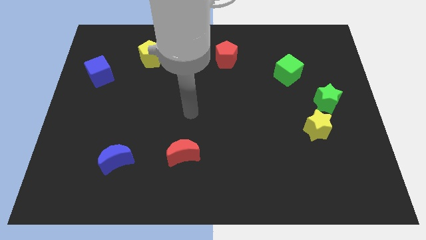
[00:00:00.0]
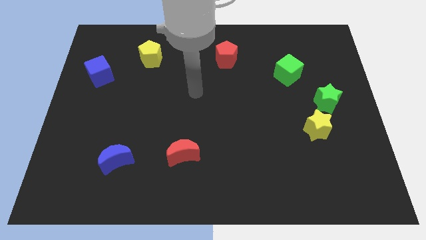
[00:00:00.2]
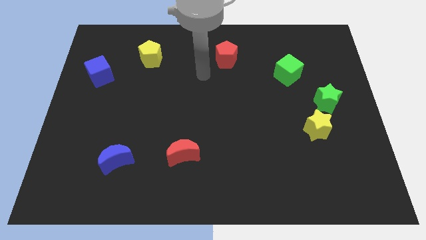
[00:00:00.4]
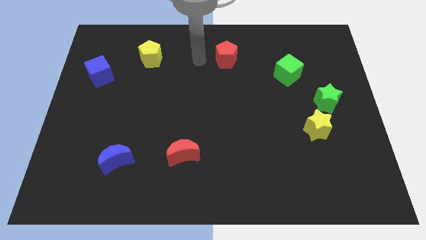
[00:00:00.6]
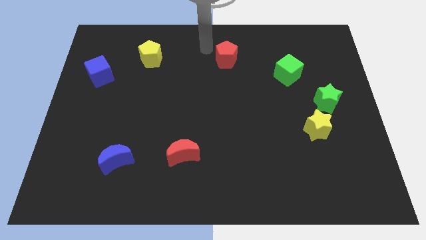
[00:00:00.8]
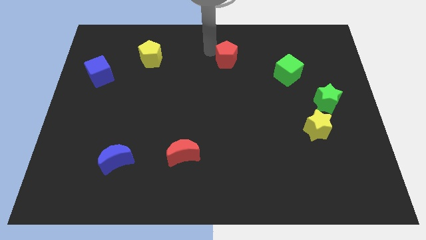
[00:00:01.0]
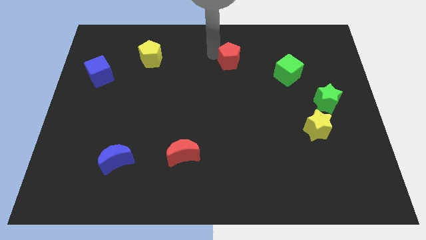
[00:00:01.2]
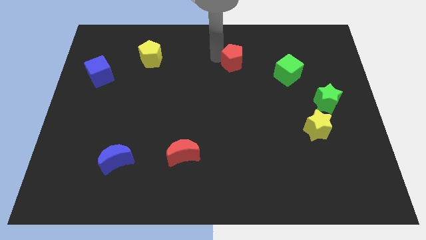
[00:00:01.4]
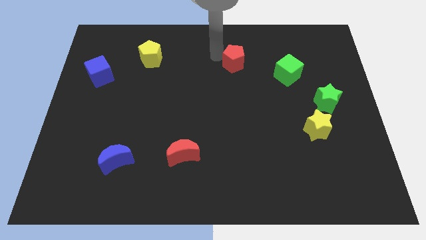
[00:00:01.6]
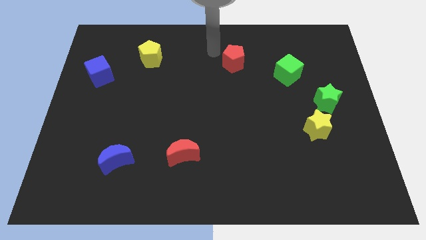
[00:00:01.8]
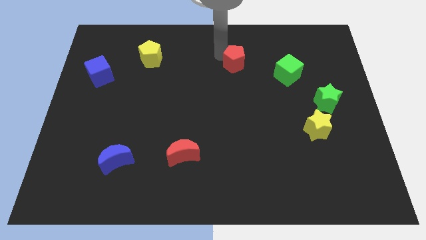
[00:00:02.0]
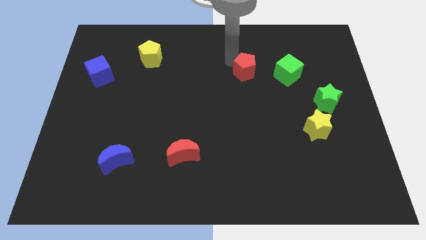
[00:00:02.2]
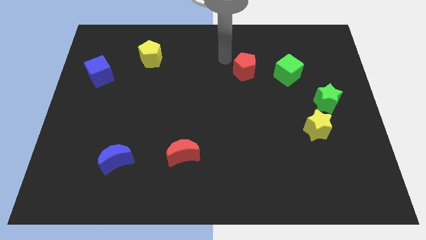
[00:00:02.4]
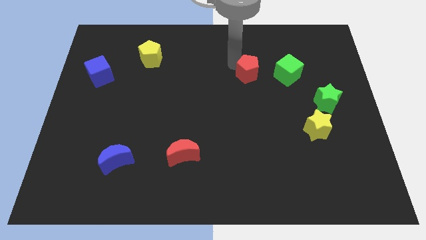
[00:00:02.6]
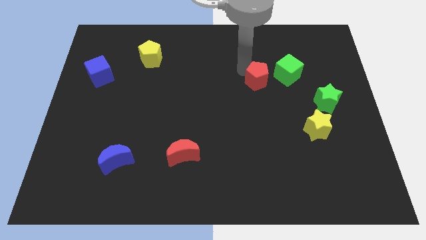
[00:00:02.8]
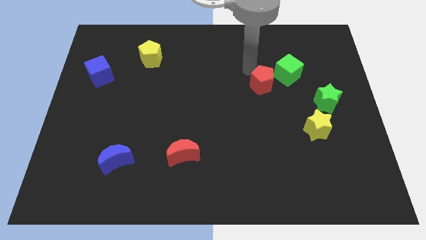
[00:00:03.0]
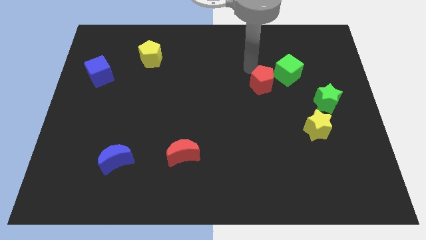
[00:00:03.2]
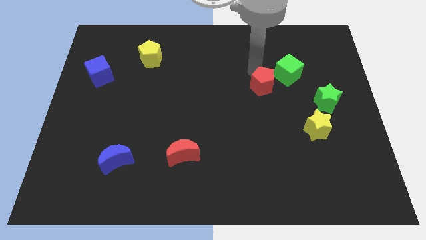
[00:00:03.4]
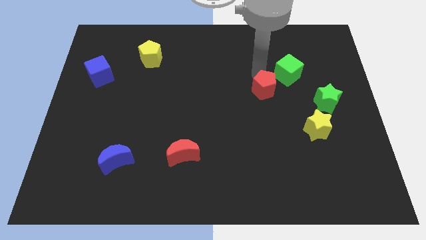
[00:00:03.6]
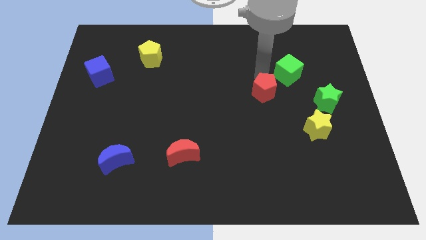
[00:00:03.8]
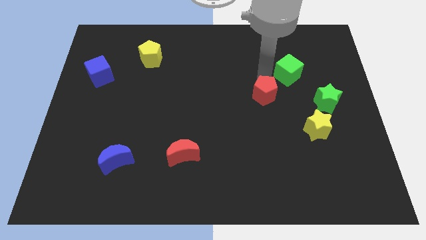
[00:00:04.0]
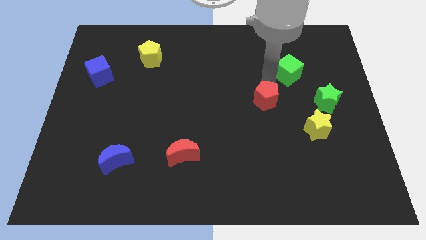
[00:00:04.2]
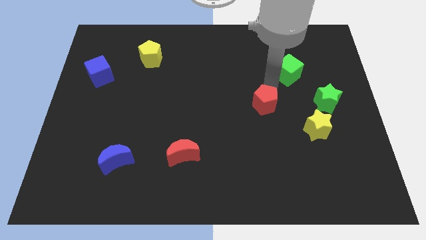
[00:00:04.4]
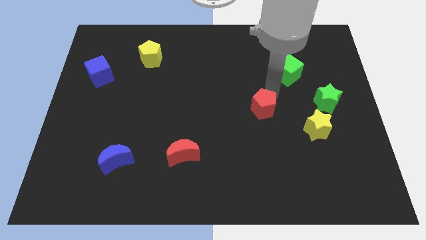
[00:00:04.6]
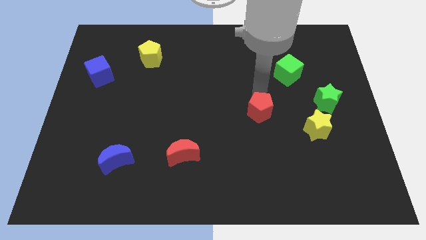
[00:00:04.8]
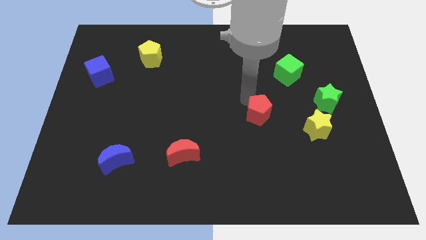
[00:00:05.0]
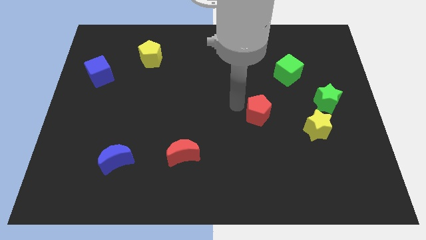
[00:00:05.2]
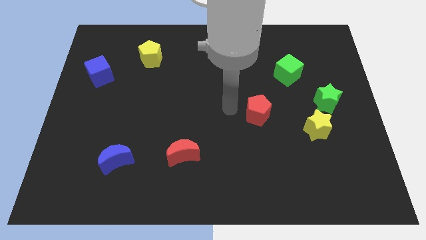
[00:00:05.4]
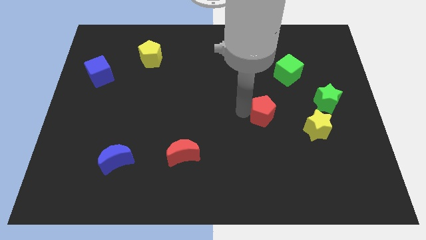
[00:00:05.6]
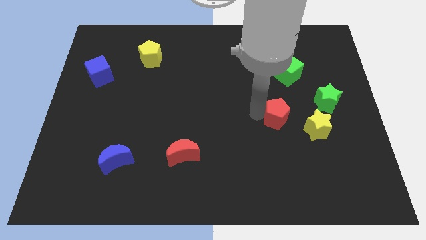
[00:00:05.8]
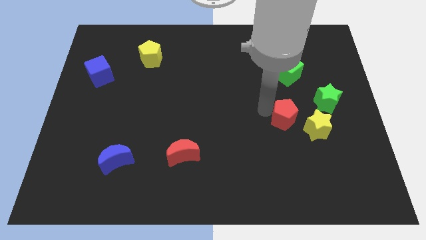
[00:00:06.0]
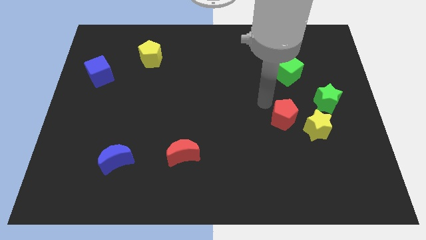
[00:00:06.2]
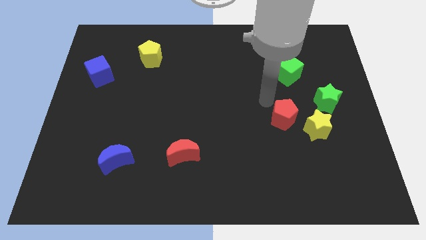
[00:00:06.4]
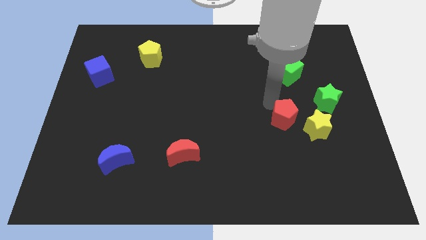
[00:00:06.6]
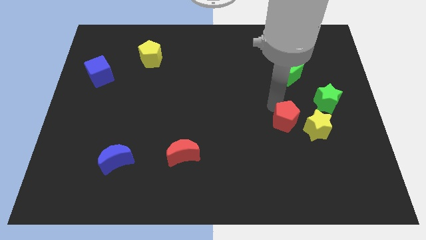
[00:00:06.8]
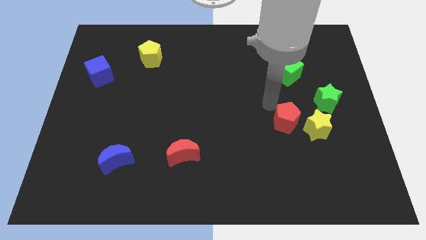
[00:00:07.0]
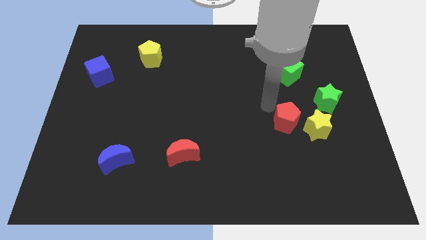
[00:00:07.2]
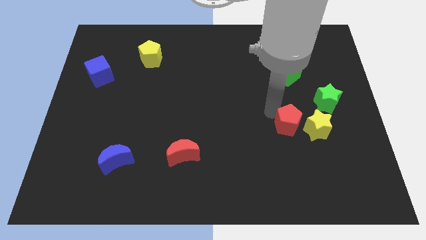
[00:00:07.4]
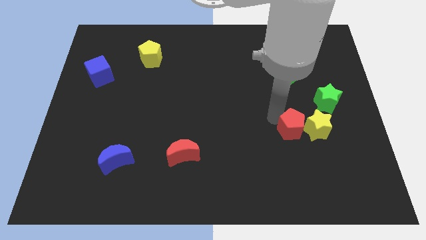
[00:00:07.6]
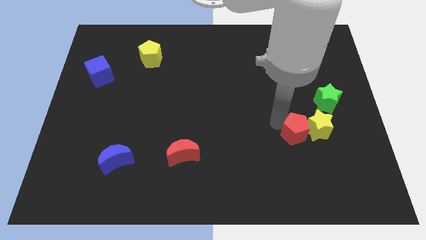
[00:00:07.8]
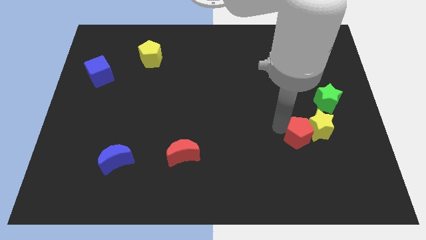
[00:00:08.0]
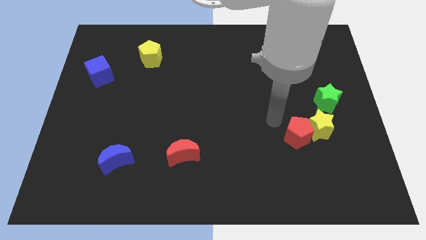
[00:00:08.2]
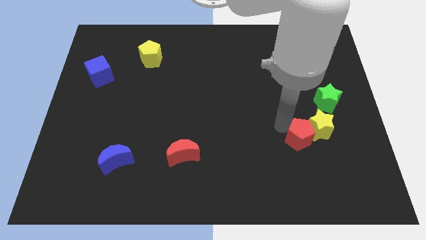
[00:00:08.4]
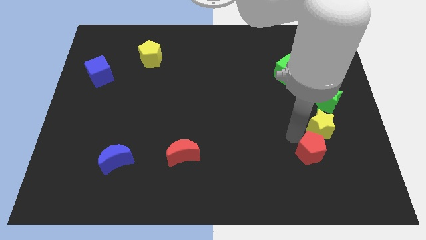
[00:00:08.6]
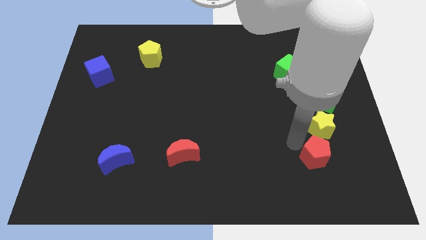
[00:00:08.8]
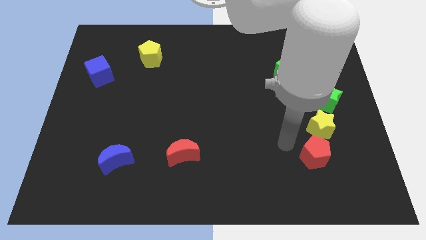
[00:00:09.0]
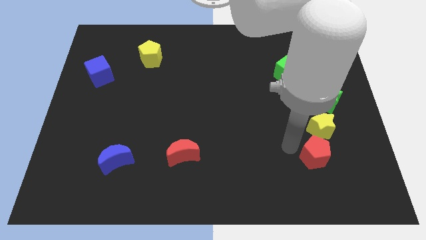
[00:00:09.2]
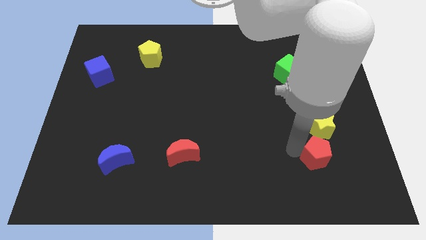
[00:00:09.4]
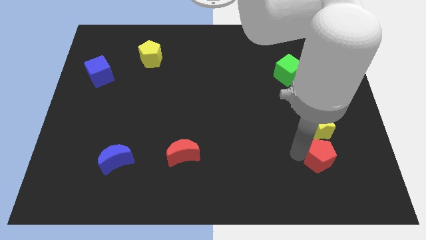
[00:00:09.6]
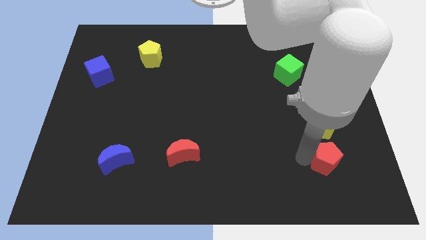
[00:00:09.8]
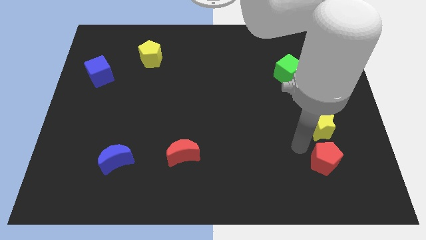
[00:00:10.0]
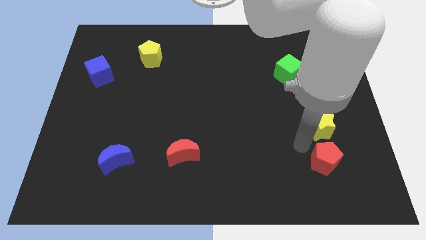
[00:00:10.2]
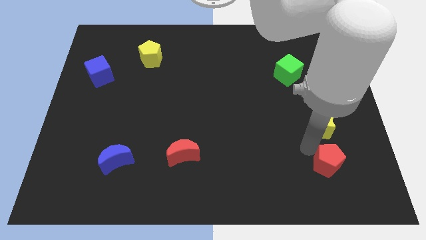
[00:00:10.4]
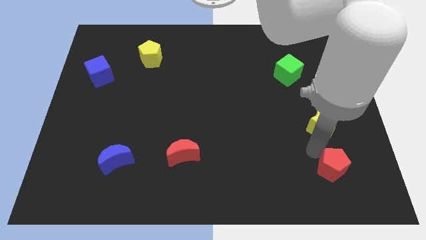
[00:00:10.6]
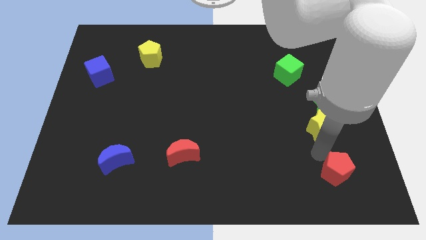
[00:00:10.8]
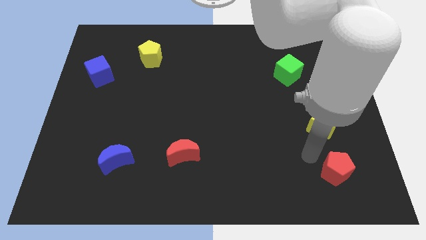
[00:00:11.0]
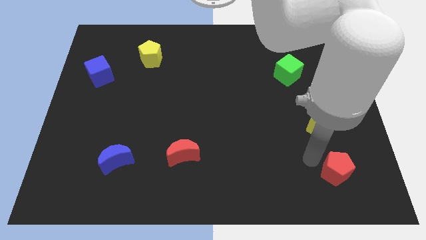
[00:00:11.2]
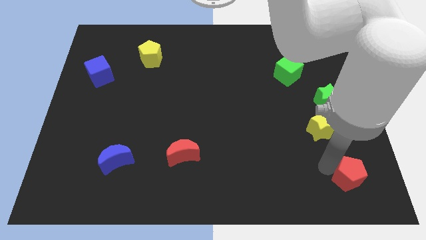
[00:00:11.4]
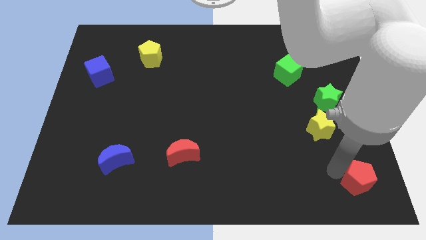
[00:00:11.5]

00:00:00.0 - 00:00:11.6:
move the red pentagon to the bottom right of the board
